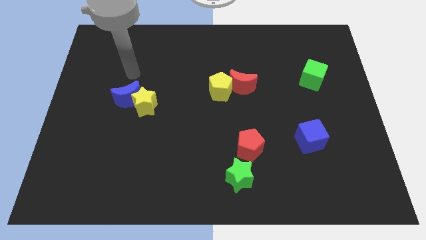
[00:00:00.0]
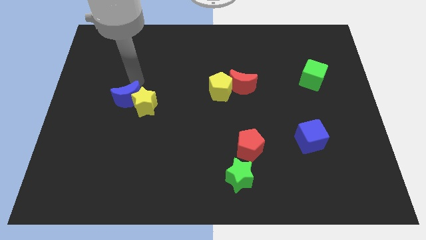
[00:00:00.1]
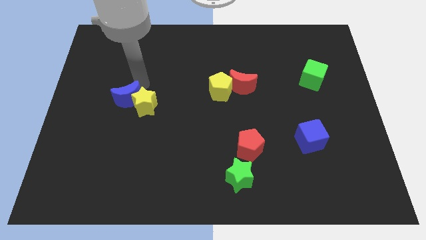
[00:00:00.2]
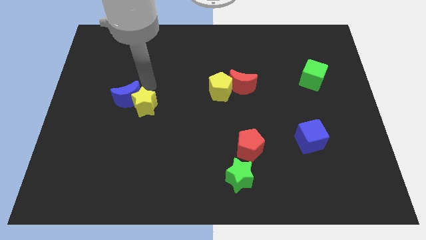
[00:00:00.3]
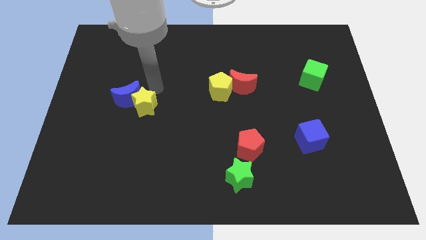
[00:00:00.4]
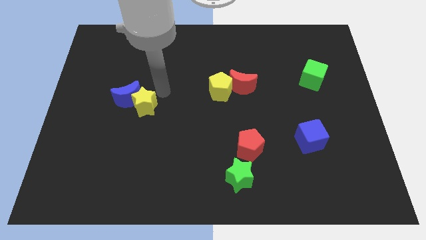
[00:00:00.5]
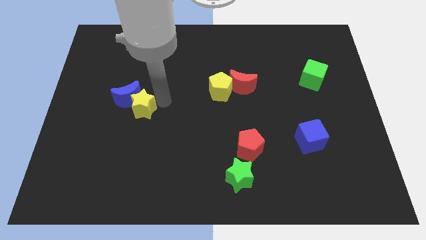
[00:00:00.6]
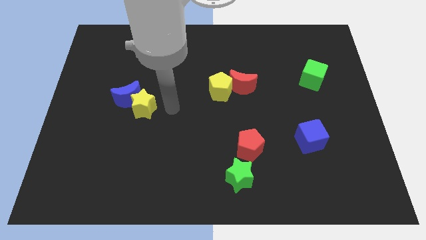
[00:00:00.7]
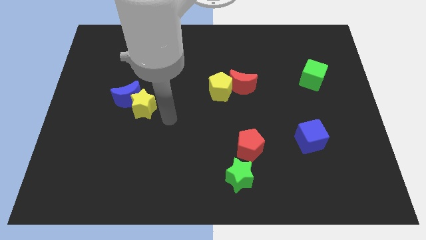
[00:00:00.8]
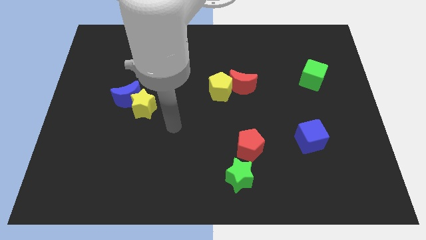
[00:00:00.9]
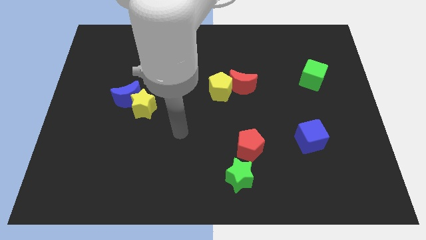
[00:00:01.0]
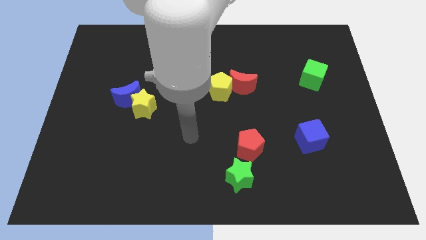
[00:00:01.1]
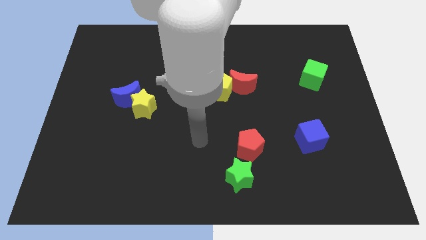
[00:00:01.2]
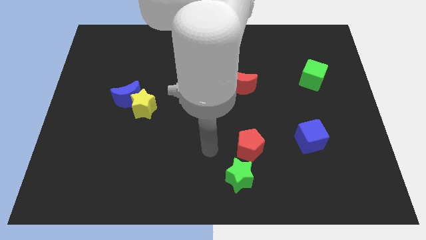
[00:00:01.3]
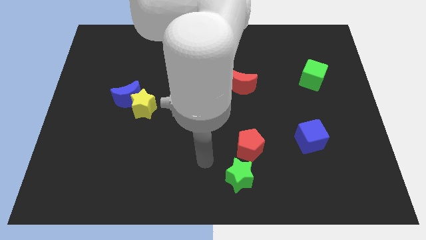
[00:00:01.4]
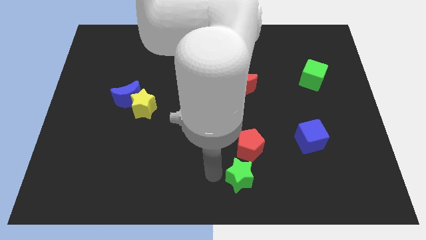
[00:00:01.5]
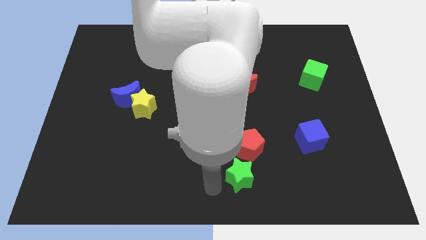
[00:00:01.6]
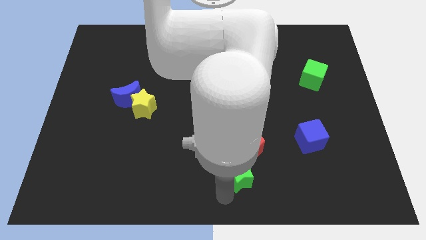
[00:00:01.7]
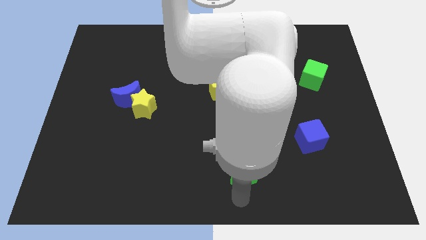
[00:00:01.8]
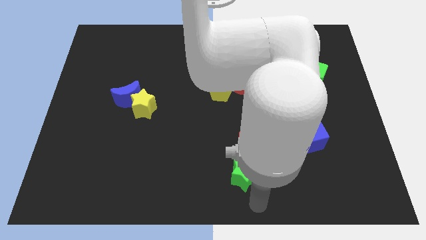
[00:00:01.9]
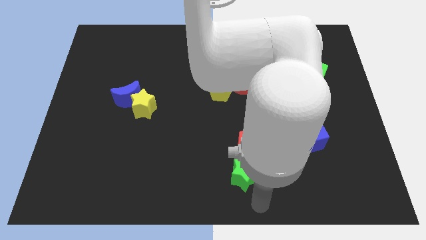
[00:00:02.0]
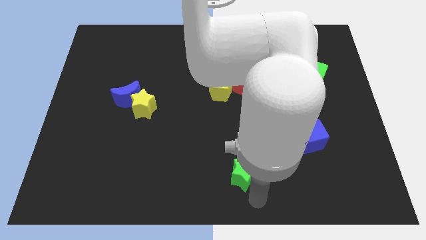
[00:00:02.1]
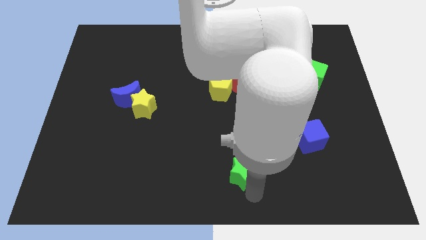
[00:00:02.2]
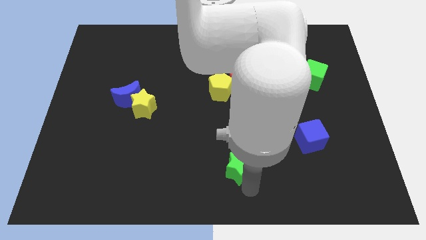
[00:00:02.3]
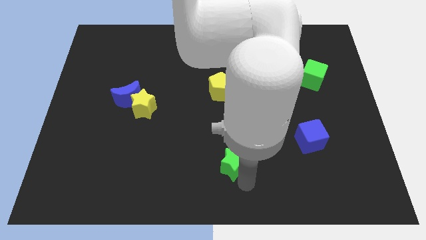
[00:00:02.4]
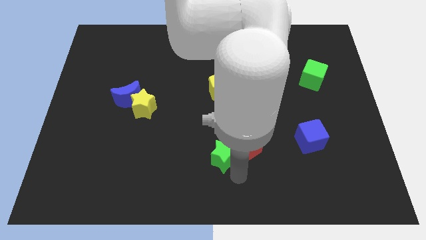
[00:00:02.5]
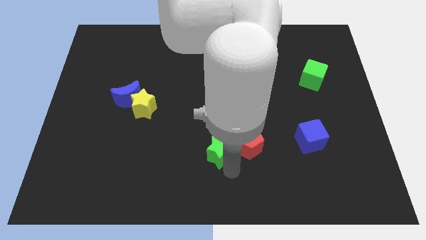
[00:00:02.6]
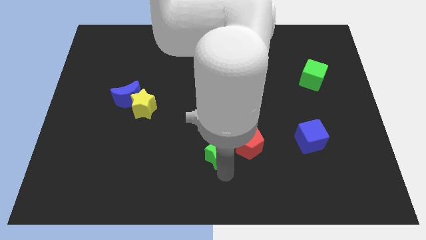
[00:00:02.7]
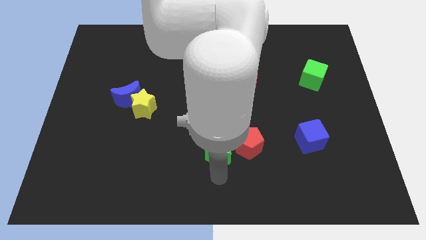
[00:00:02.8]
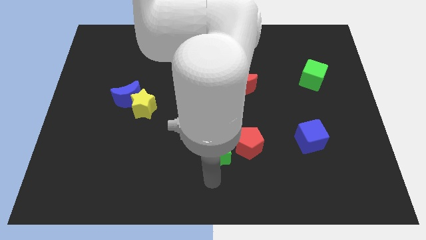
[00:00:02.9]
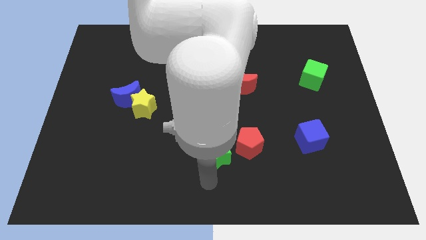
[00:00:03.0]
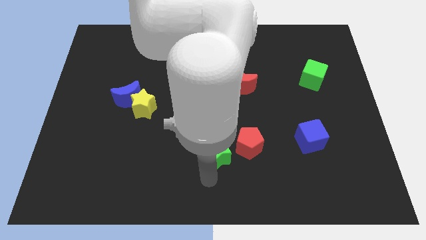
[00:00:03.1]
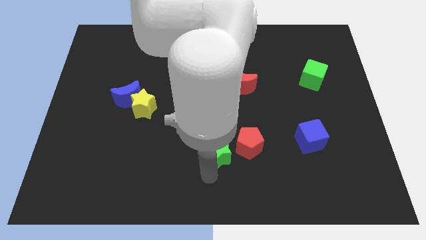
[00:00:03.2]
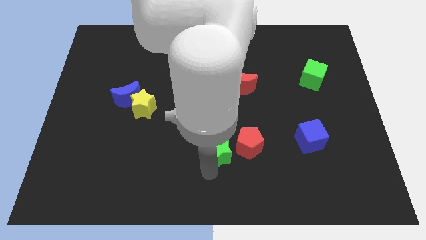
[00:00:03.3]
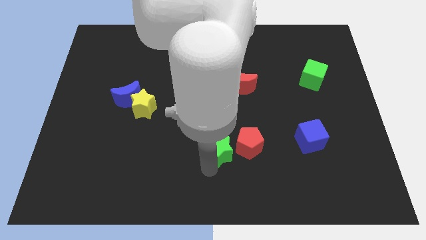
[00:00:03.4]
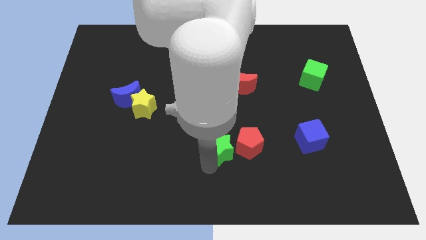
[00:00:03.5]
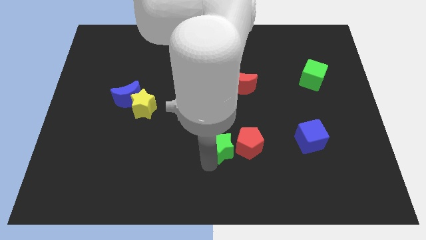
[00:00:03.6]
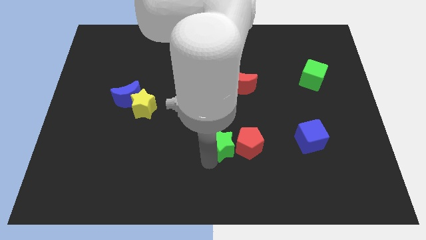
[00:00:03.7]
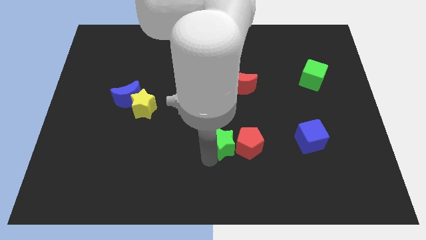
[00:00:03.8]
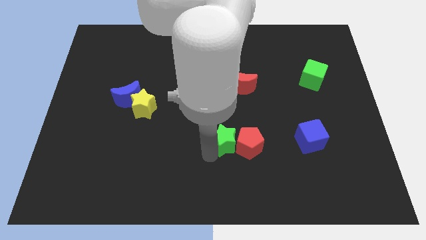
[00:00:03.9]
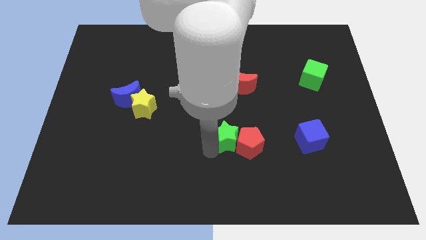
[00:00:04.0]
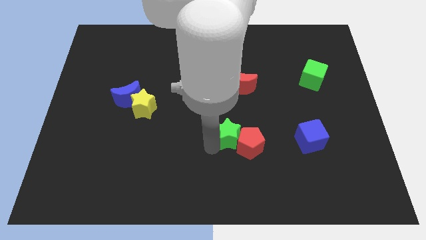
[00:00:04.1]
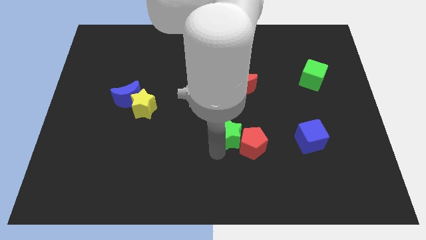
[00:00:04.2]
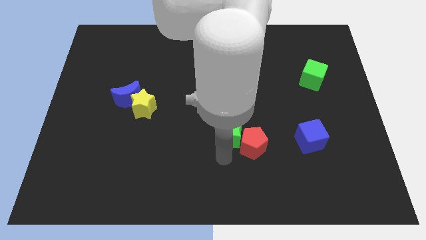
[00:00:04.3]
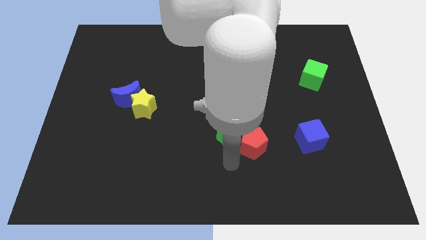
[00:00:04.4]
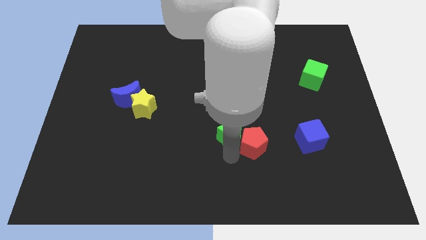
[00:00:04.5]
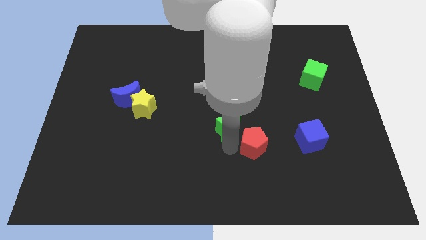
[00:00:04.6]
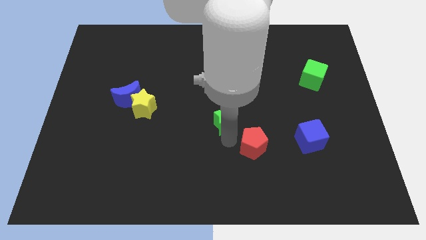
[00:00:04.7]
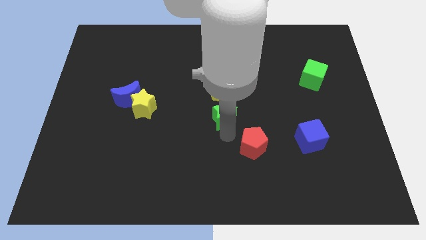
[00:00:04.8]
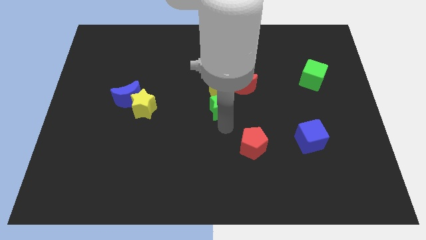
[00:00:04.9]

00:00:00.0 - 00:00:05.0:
push the green star to the yellow pentagon

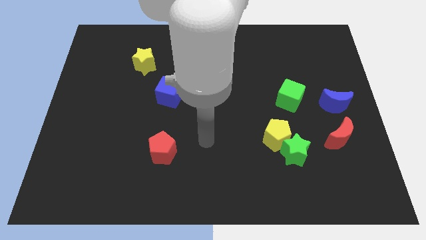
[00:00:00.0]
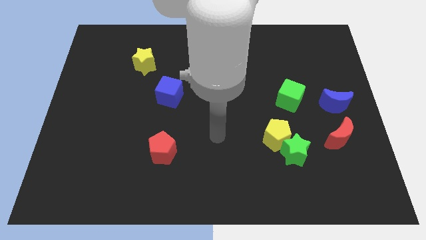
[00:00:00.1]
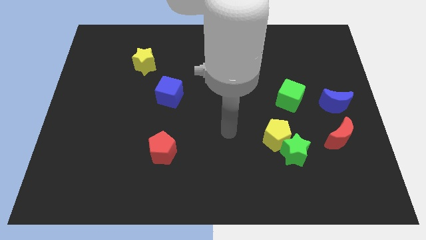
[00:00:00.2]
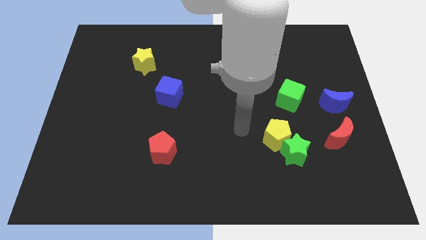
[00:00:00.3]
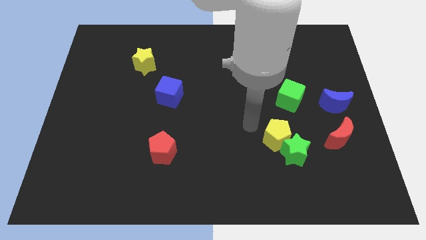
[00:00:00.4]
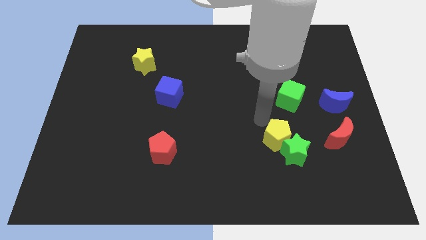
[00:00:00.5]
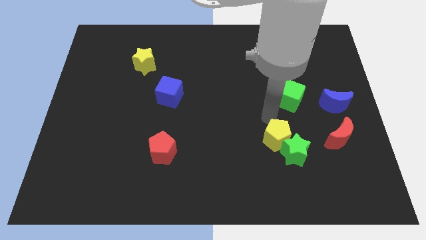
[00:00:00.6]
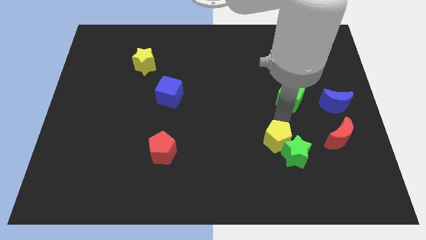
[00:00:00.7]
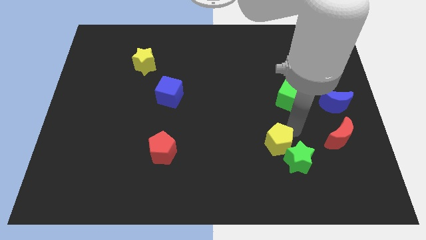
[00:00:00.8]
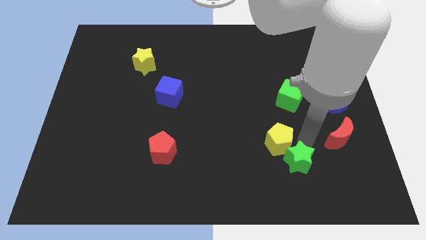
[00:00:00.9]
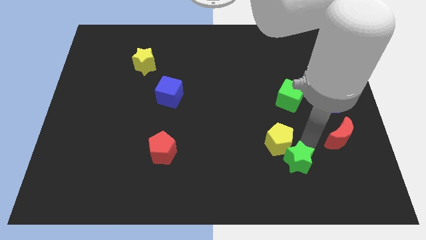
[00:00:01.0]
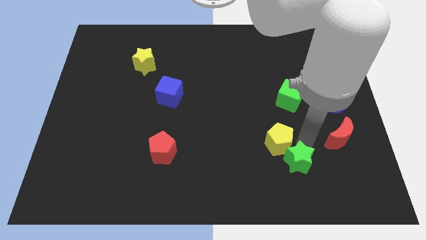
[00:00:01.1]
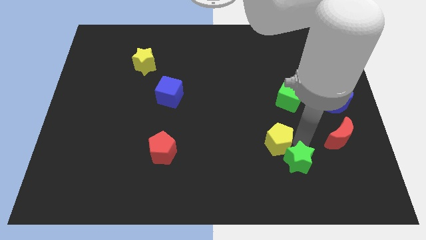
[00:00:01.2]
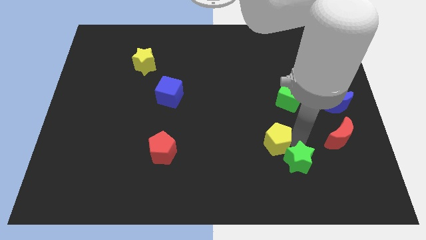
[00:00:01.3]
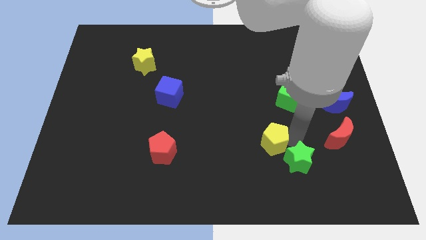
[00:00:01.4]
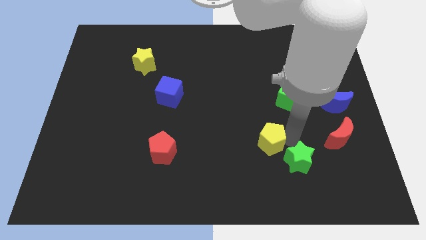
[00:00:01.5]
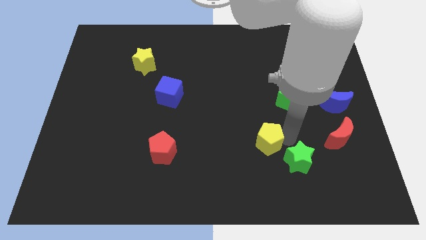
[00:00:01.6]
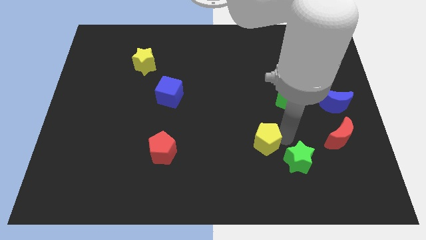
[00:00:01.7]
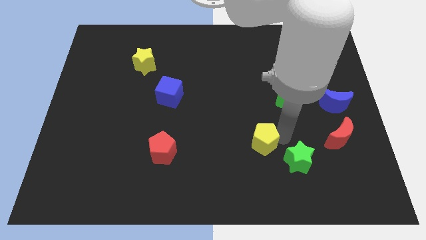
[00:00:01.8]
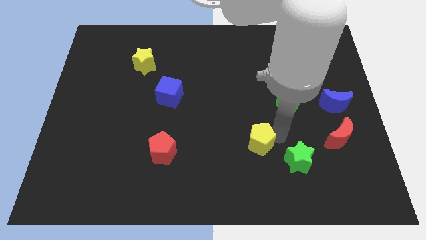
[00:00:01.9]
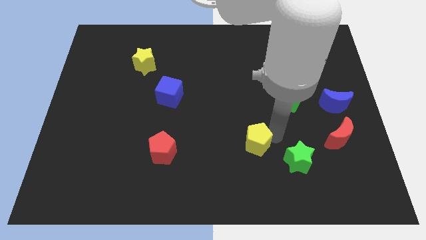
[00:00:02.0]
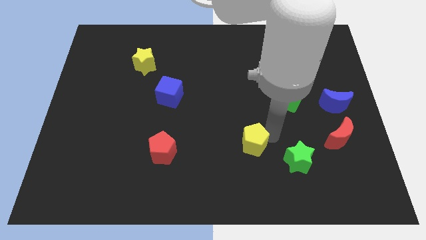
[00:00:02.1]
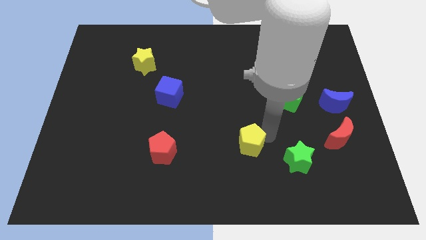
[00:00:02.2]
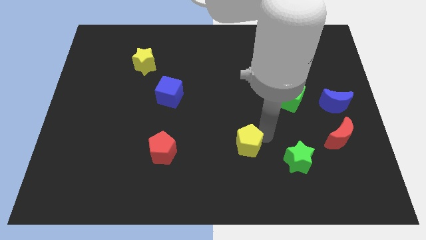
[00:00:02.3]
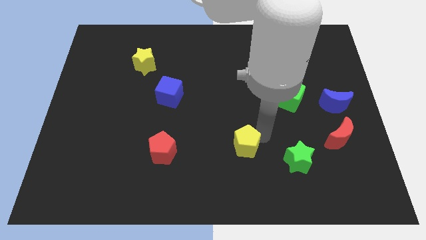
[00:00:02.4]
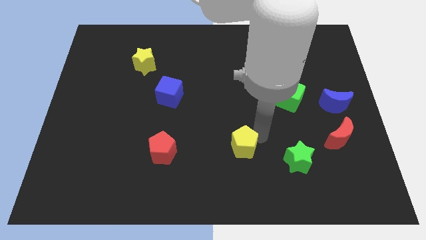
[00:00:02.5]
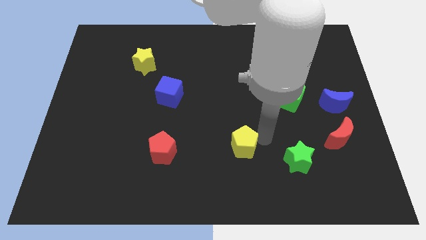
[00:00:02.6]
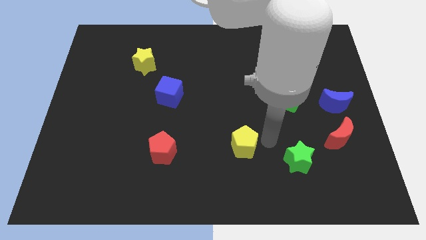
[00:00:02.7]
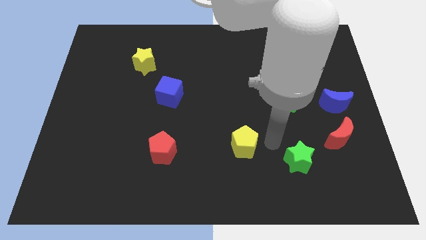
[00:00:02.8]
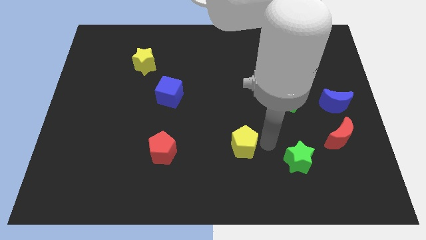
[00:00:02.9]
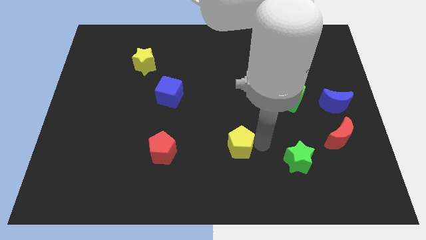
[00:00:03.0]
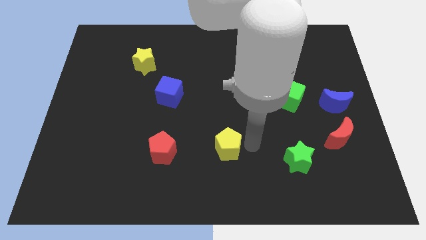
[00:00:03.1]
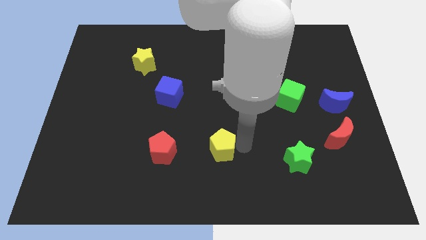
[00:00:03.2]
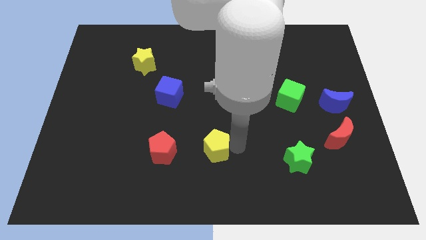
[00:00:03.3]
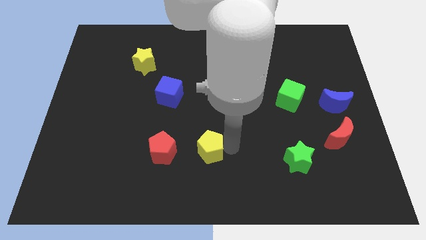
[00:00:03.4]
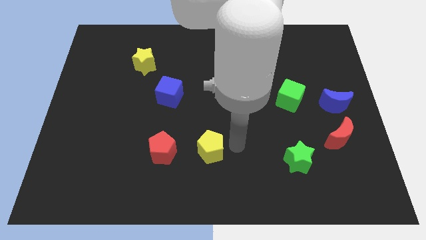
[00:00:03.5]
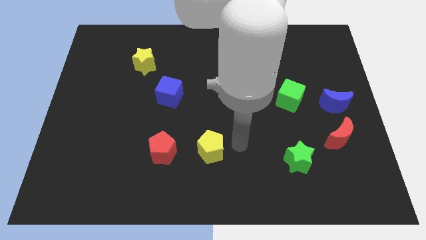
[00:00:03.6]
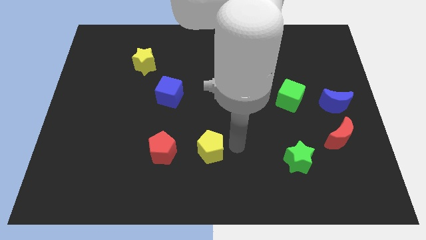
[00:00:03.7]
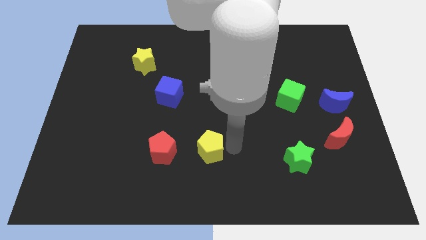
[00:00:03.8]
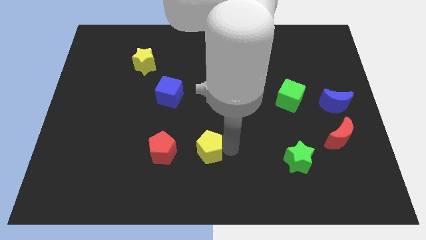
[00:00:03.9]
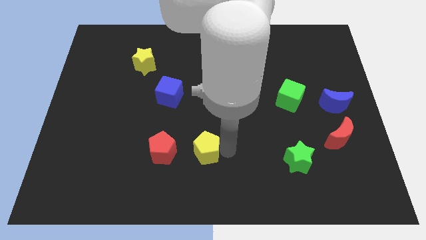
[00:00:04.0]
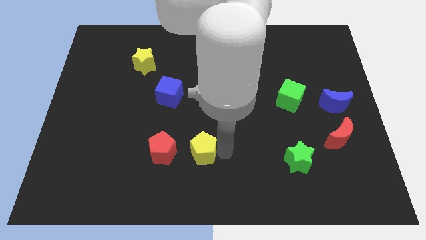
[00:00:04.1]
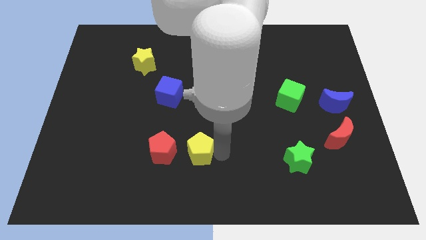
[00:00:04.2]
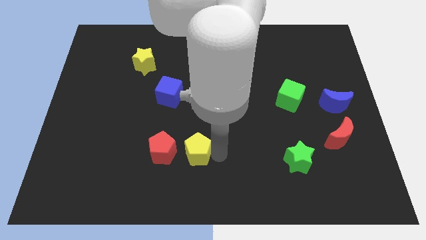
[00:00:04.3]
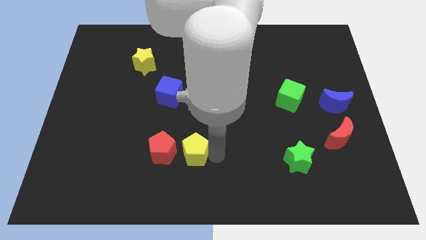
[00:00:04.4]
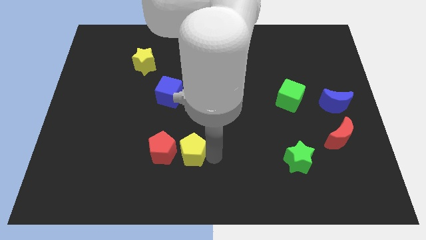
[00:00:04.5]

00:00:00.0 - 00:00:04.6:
move the yellow pentagon next to the red pentagon
